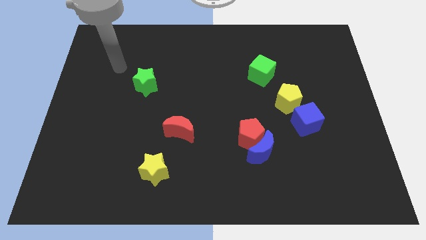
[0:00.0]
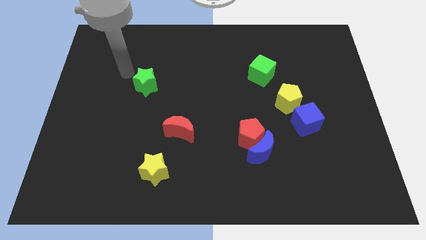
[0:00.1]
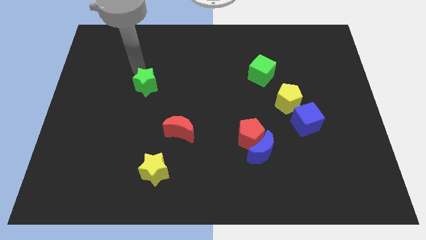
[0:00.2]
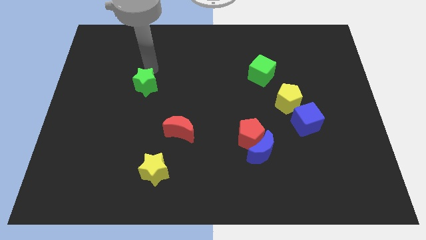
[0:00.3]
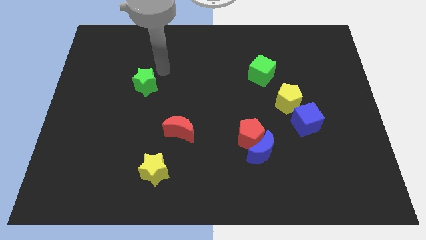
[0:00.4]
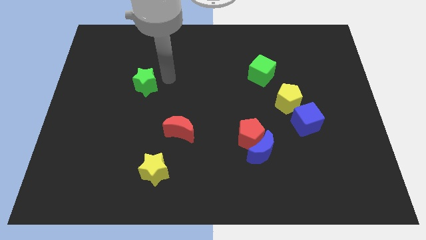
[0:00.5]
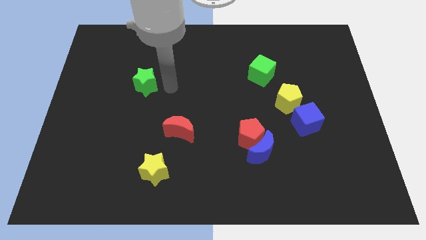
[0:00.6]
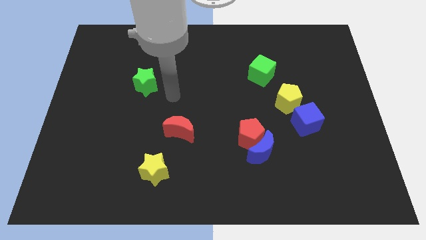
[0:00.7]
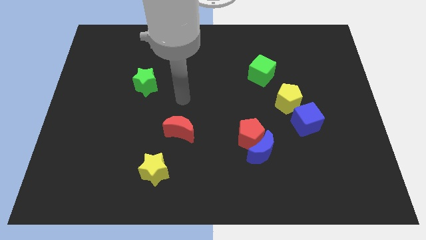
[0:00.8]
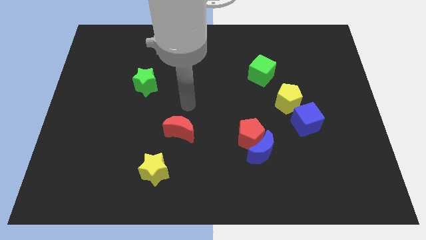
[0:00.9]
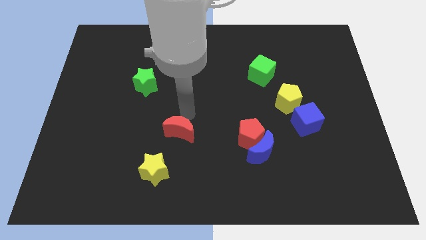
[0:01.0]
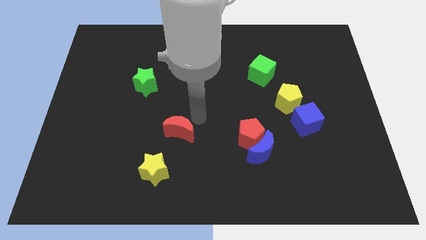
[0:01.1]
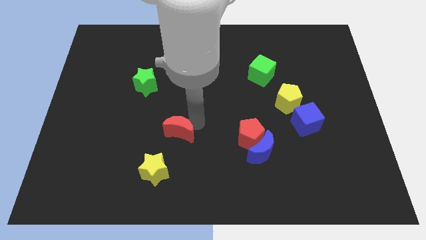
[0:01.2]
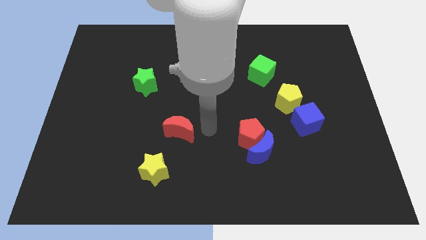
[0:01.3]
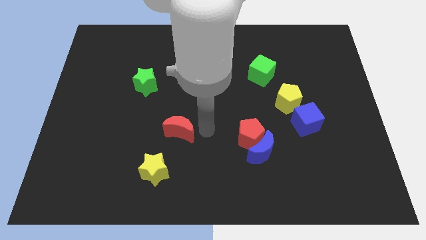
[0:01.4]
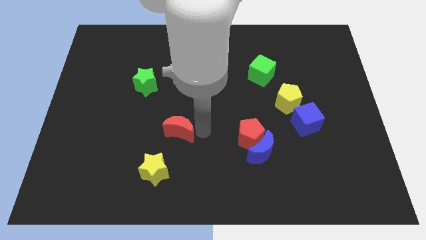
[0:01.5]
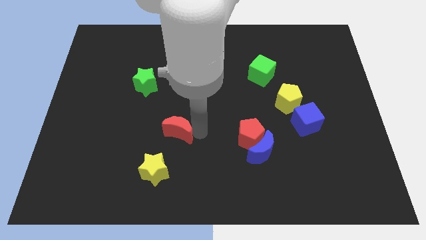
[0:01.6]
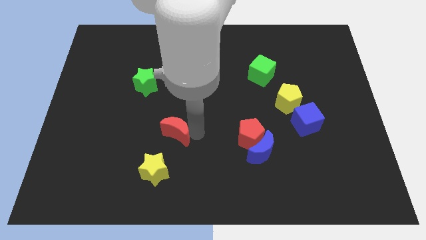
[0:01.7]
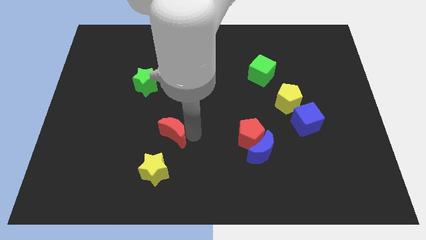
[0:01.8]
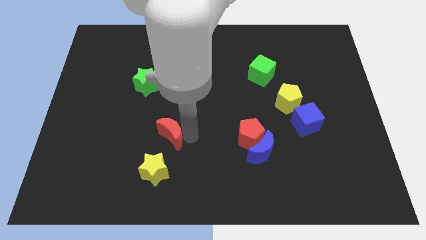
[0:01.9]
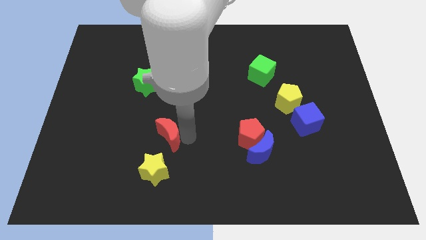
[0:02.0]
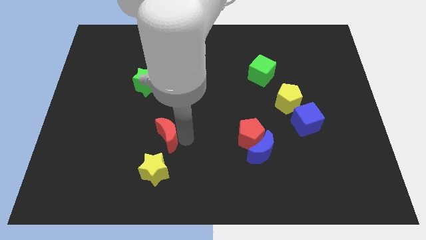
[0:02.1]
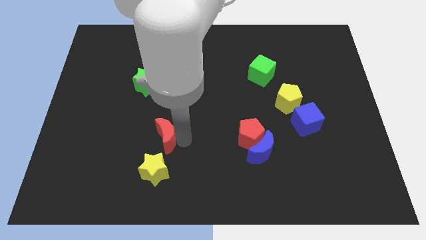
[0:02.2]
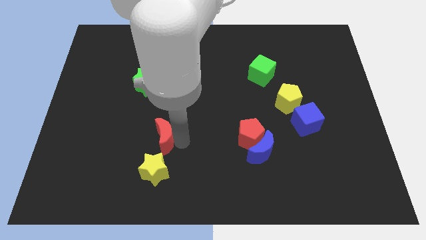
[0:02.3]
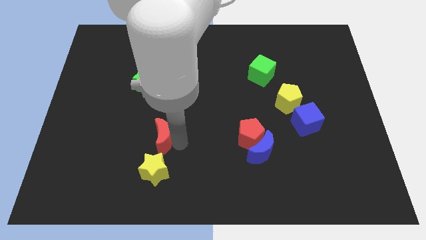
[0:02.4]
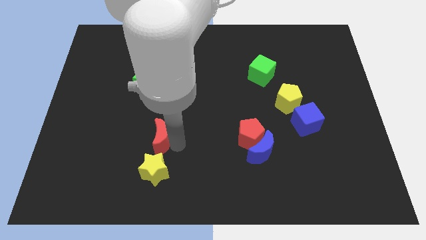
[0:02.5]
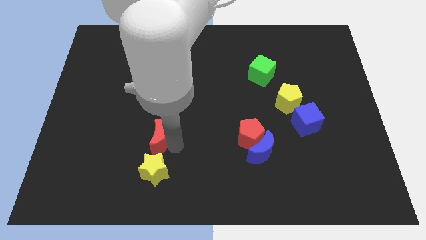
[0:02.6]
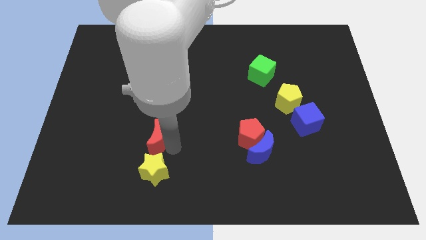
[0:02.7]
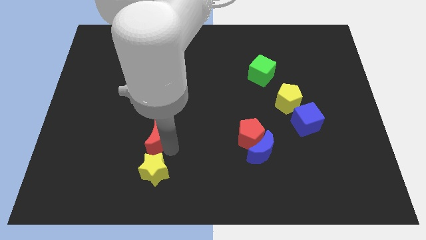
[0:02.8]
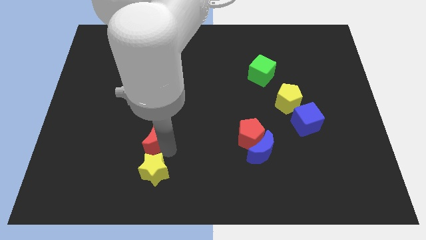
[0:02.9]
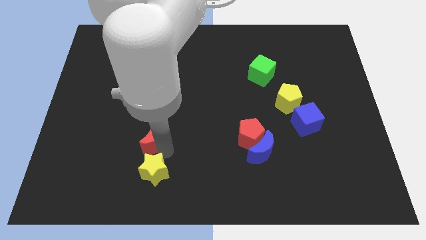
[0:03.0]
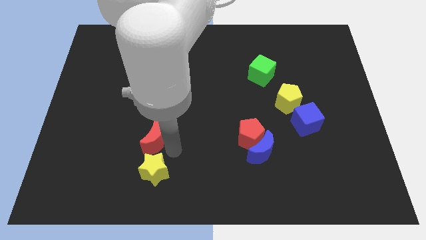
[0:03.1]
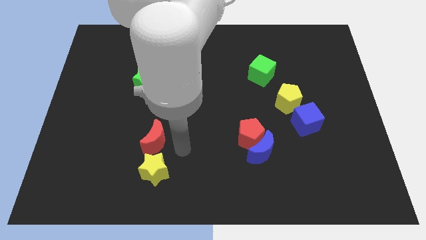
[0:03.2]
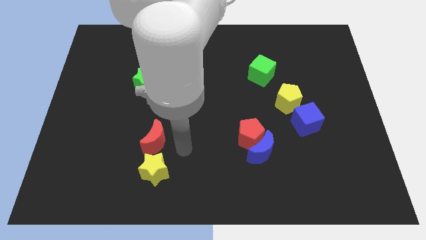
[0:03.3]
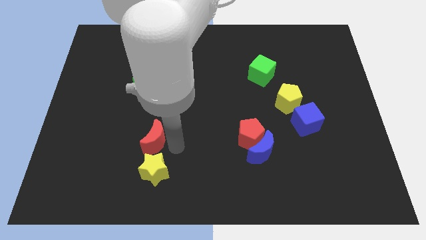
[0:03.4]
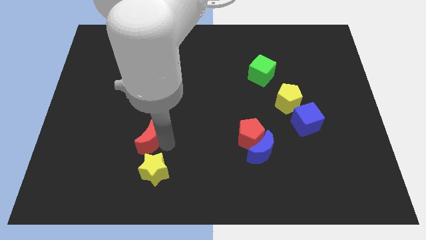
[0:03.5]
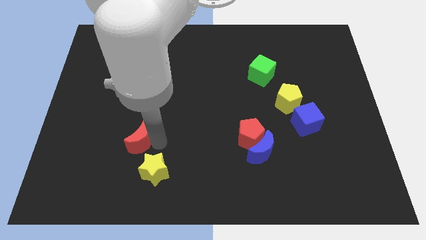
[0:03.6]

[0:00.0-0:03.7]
slightly move the red moon left

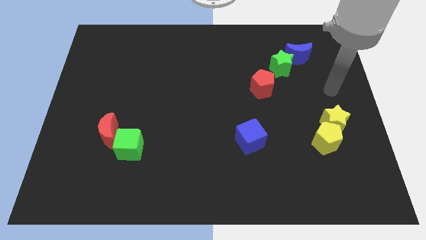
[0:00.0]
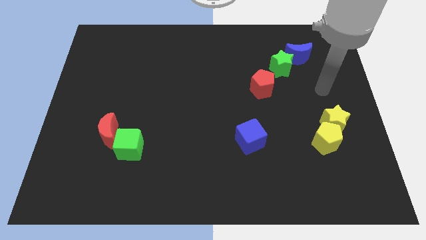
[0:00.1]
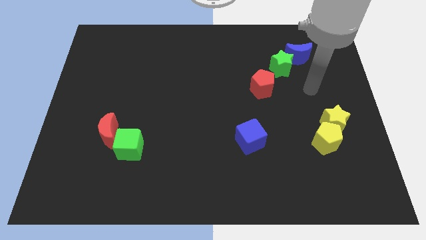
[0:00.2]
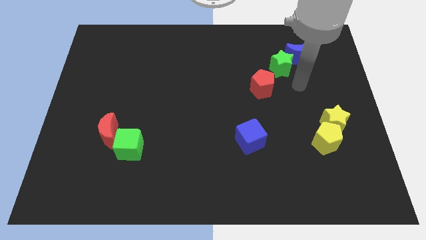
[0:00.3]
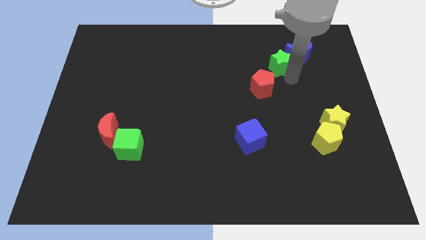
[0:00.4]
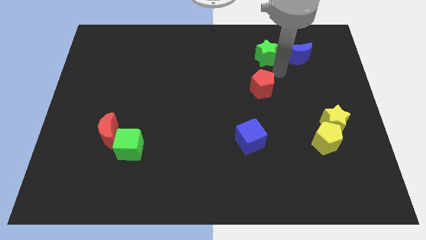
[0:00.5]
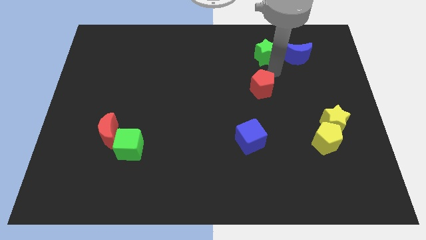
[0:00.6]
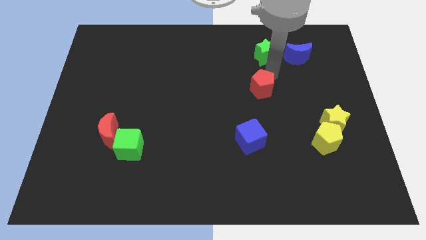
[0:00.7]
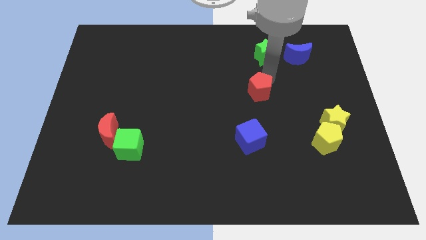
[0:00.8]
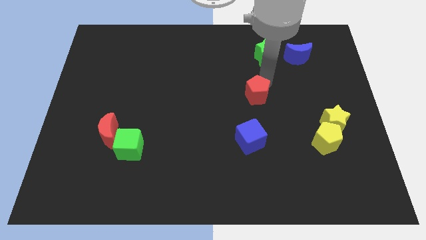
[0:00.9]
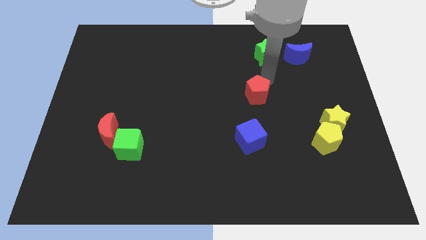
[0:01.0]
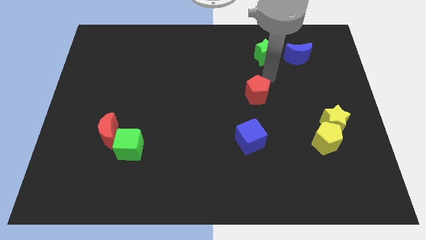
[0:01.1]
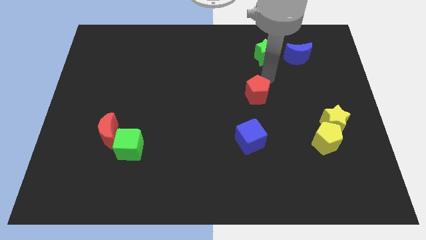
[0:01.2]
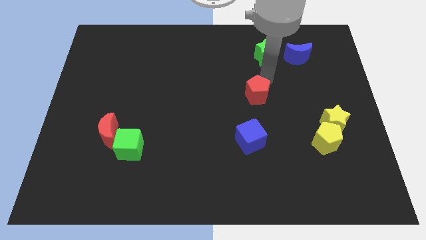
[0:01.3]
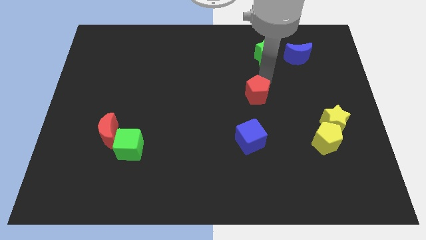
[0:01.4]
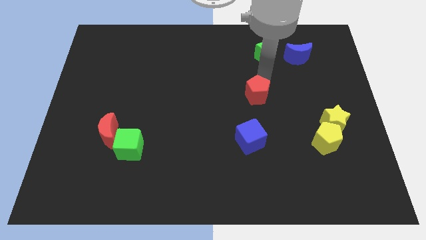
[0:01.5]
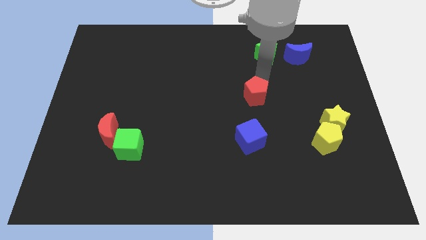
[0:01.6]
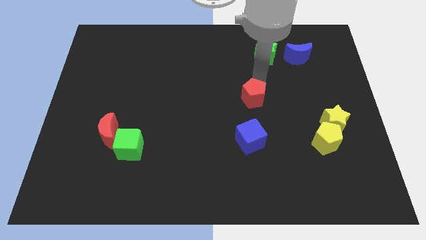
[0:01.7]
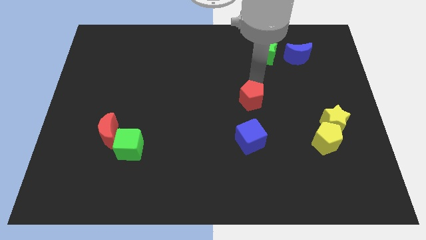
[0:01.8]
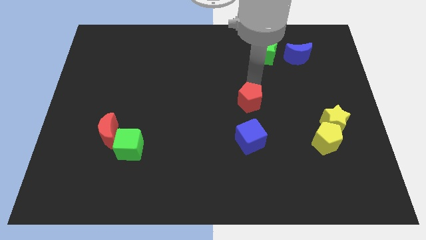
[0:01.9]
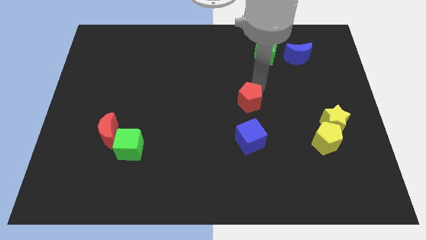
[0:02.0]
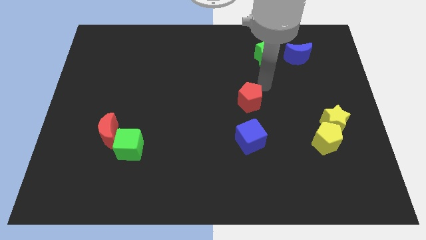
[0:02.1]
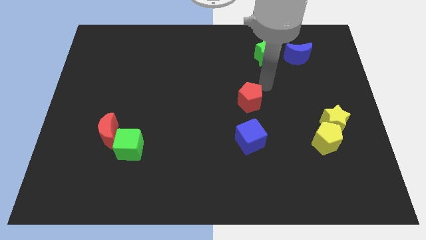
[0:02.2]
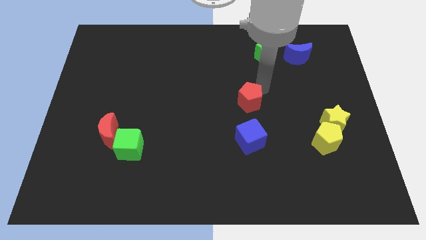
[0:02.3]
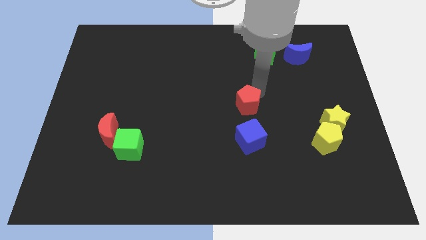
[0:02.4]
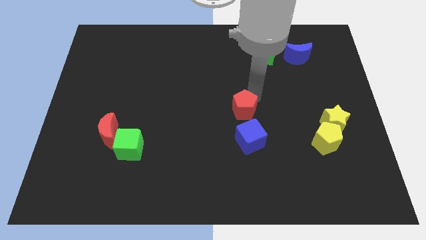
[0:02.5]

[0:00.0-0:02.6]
slightly push the red pentagon down and to the left

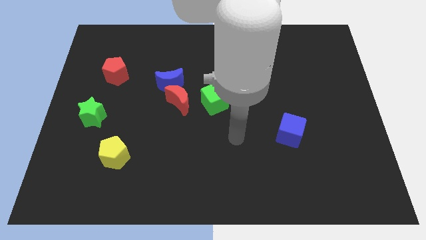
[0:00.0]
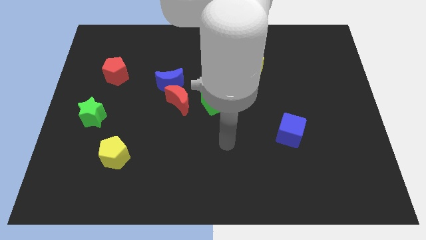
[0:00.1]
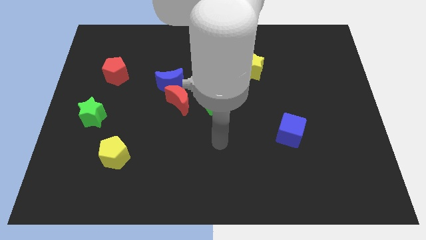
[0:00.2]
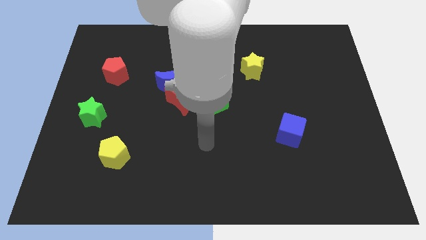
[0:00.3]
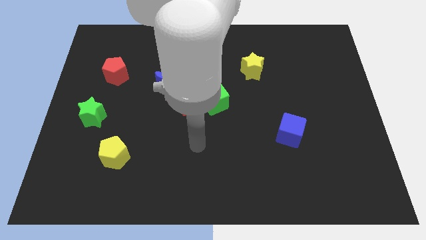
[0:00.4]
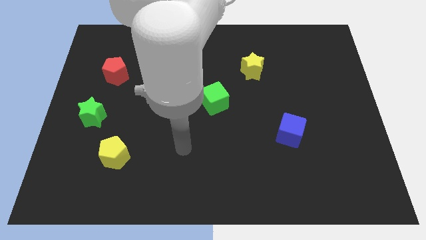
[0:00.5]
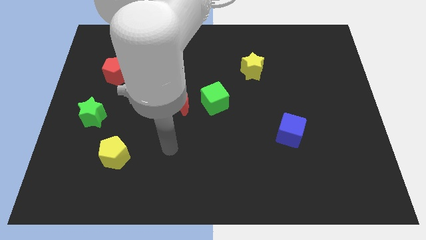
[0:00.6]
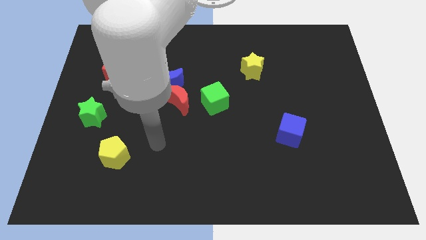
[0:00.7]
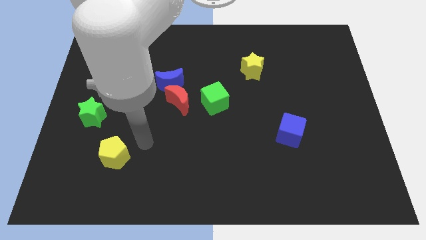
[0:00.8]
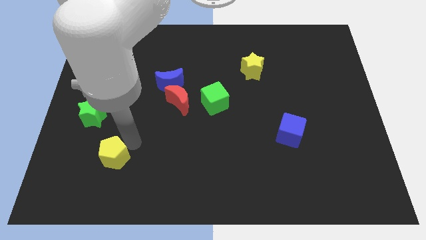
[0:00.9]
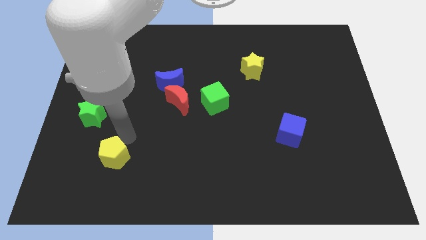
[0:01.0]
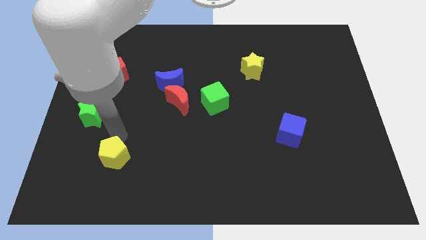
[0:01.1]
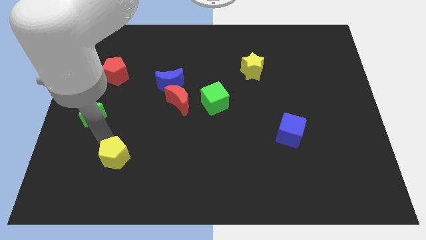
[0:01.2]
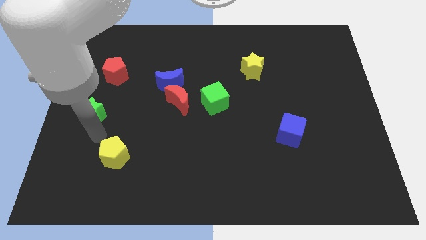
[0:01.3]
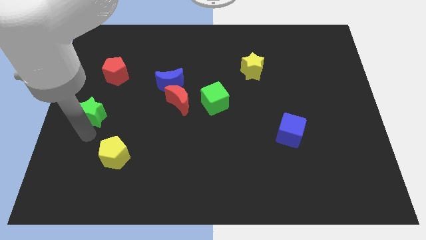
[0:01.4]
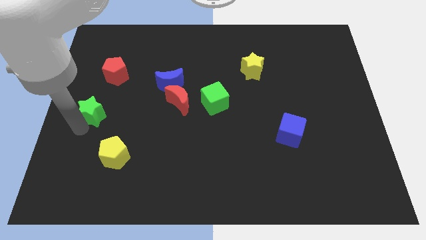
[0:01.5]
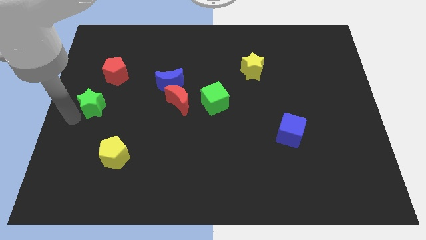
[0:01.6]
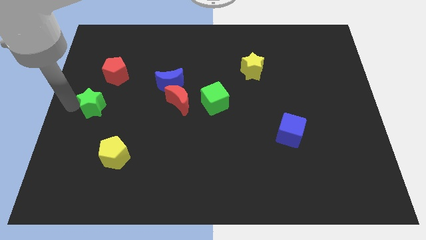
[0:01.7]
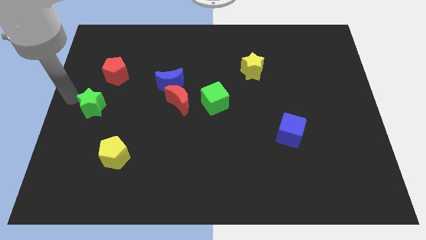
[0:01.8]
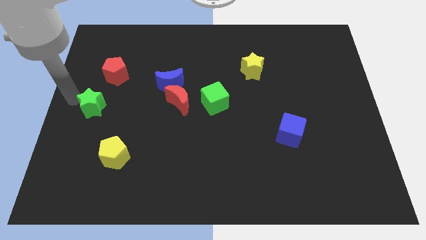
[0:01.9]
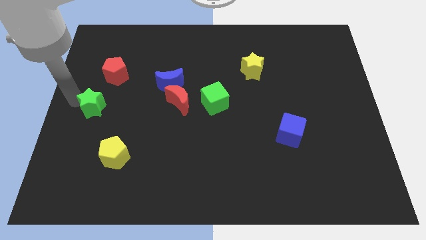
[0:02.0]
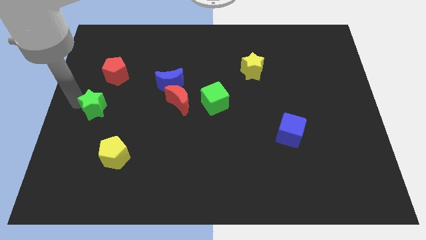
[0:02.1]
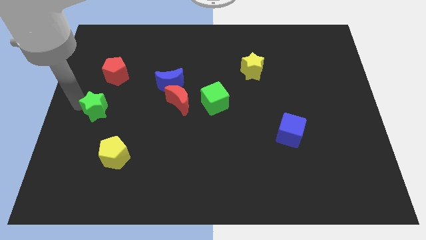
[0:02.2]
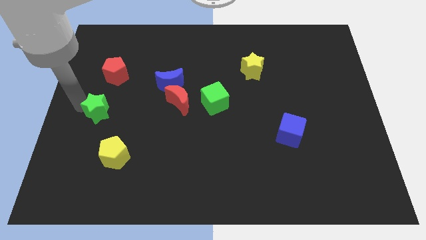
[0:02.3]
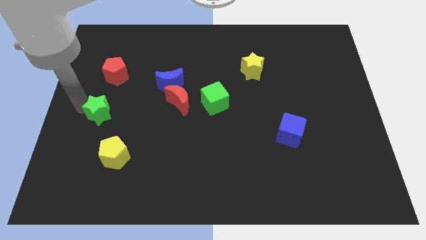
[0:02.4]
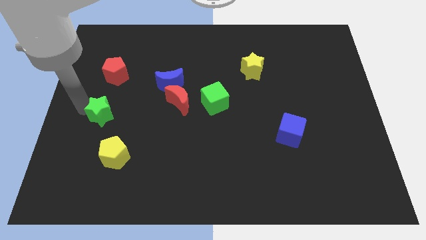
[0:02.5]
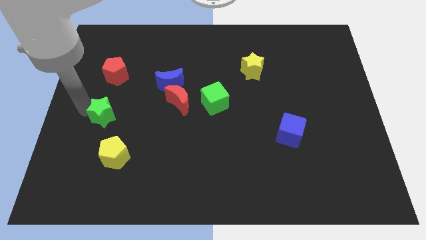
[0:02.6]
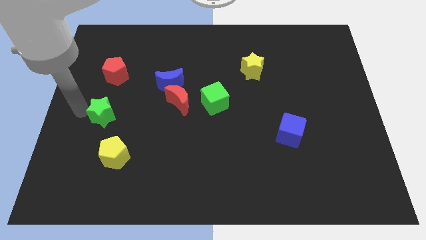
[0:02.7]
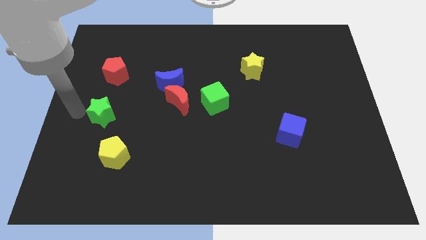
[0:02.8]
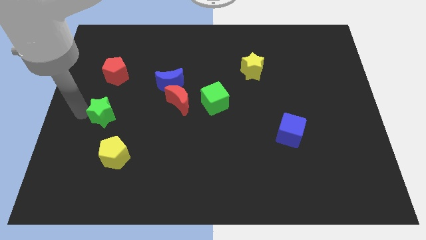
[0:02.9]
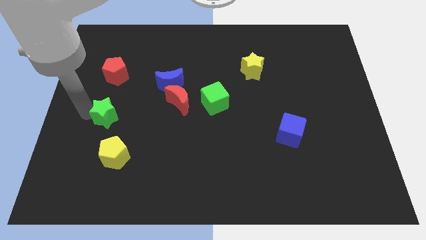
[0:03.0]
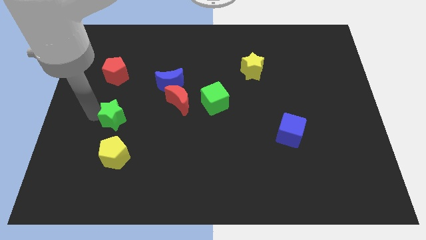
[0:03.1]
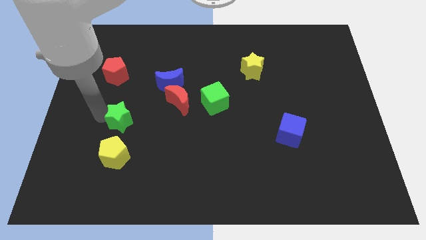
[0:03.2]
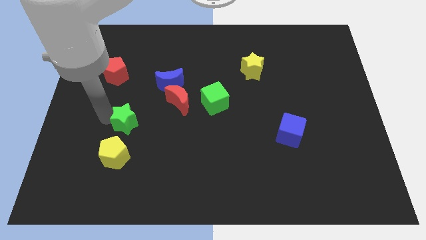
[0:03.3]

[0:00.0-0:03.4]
slightly slide the green star to the right
